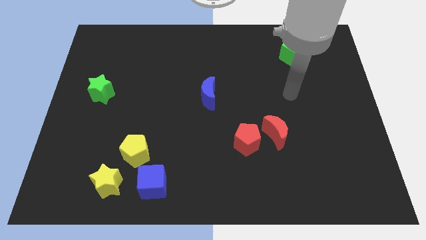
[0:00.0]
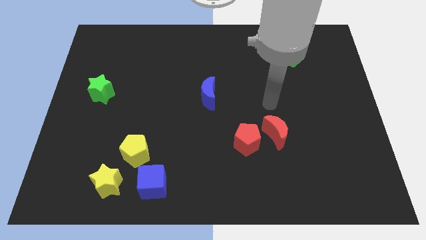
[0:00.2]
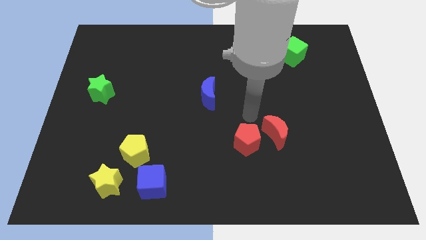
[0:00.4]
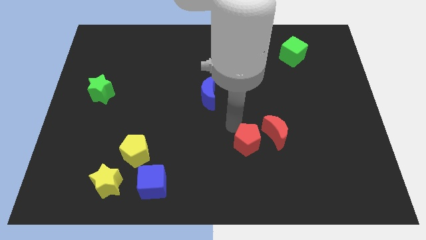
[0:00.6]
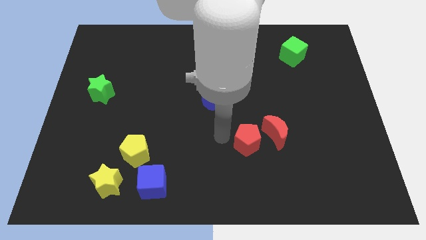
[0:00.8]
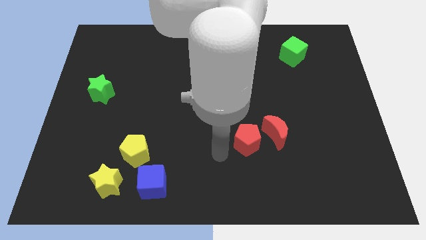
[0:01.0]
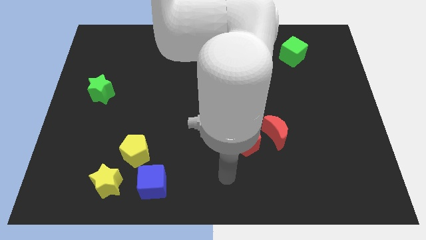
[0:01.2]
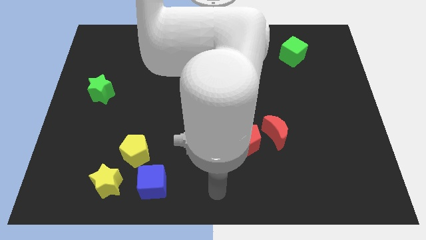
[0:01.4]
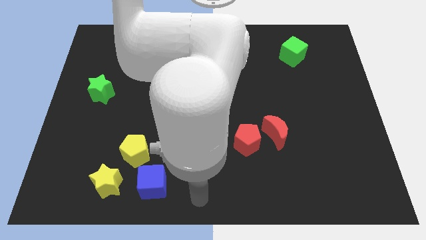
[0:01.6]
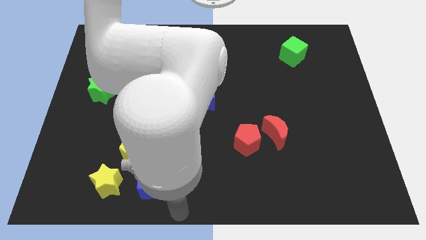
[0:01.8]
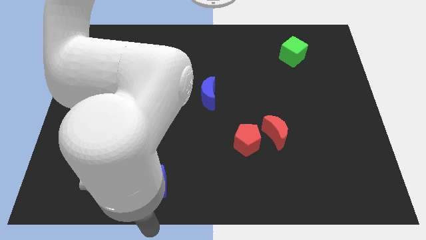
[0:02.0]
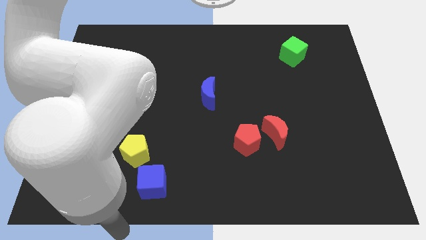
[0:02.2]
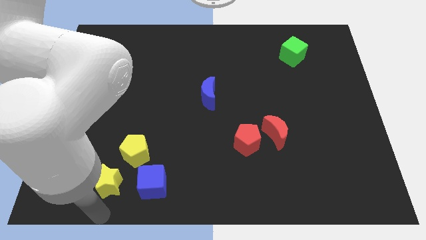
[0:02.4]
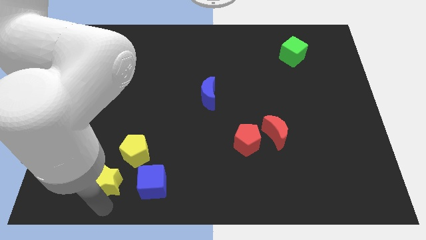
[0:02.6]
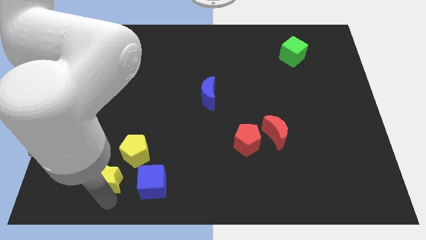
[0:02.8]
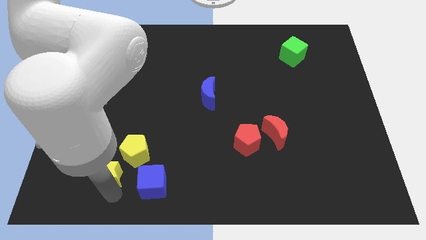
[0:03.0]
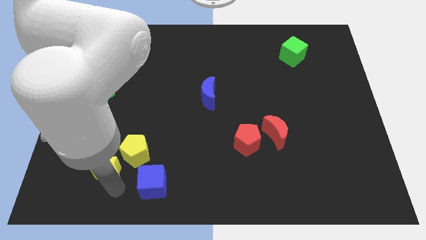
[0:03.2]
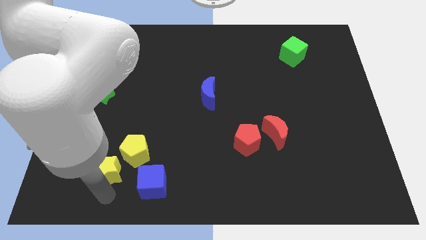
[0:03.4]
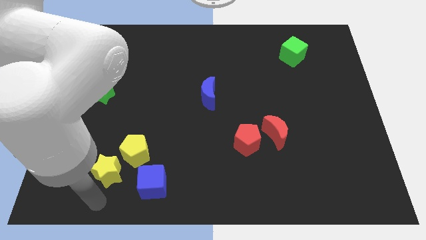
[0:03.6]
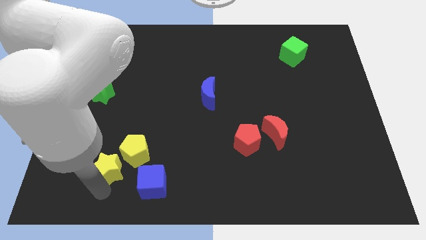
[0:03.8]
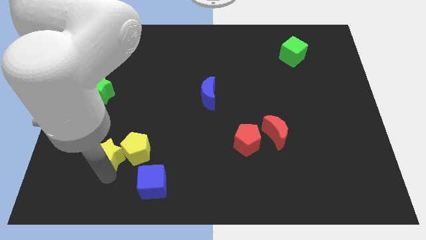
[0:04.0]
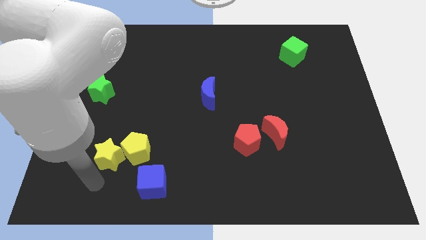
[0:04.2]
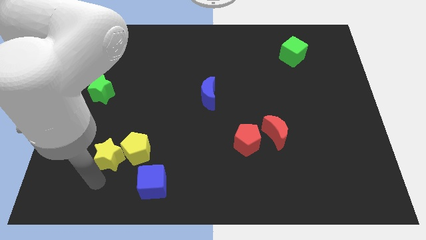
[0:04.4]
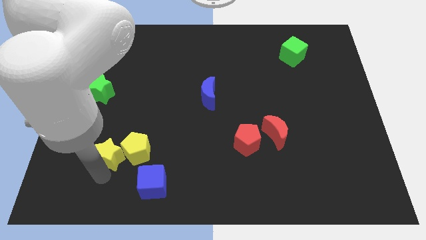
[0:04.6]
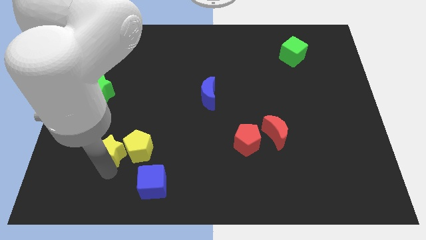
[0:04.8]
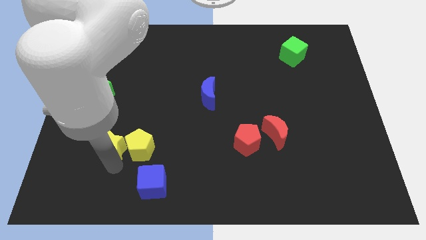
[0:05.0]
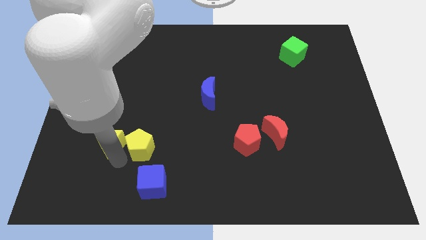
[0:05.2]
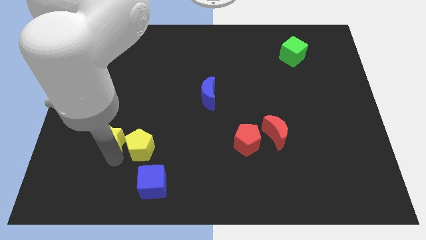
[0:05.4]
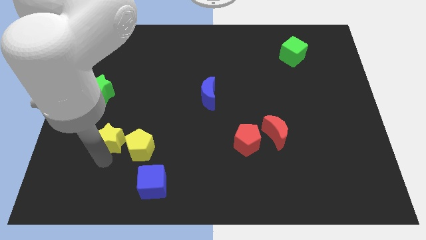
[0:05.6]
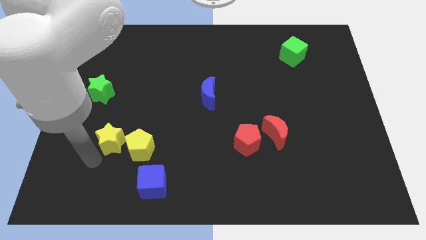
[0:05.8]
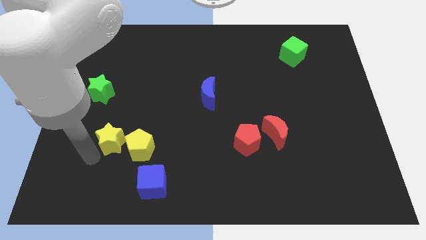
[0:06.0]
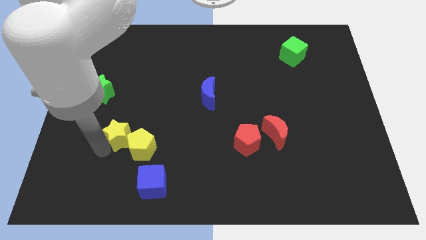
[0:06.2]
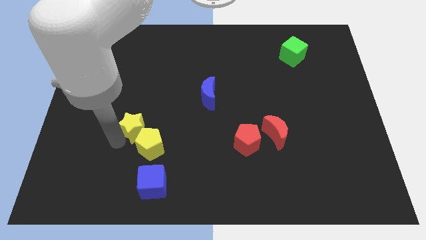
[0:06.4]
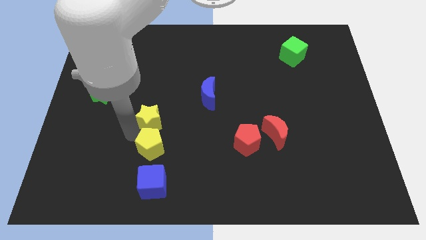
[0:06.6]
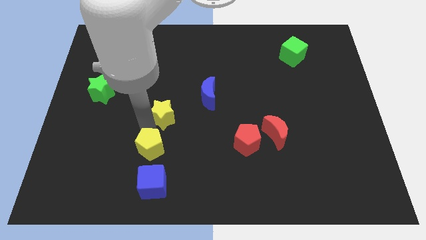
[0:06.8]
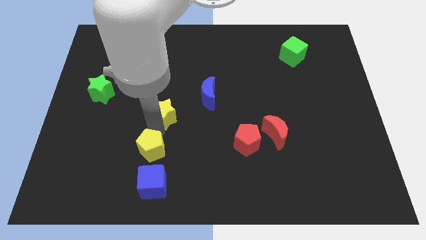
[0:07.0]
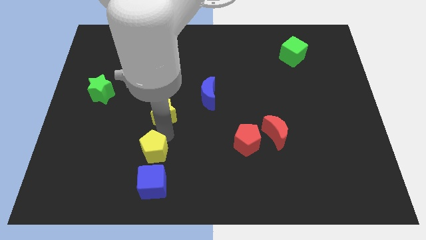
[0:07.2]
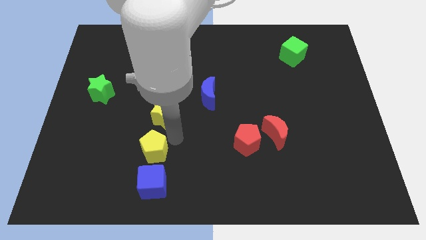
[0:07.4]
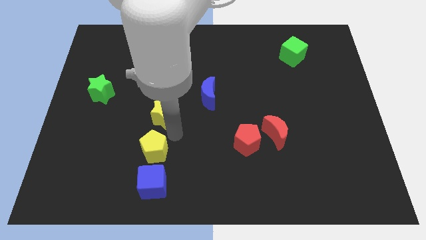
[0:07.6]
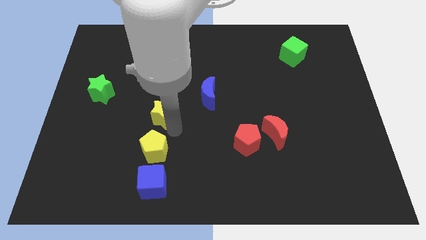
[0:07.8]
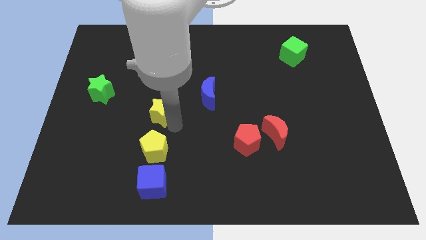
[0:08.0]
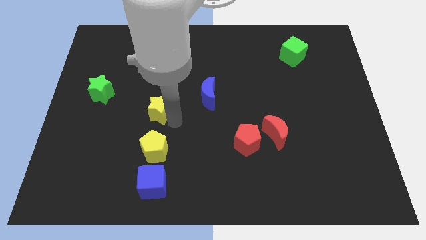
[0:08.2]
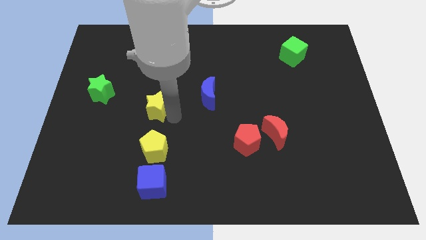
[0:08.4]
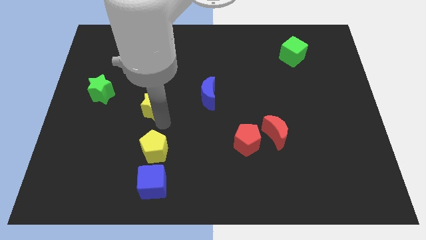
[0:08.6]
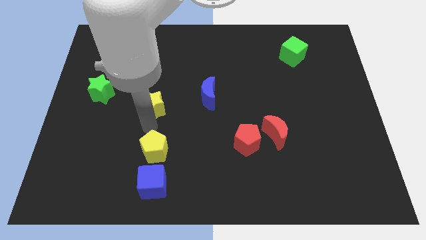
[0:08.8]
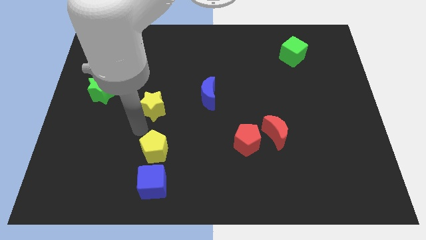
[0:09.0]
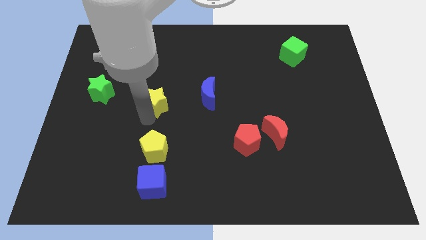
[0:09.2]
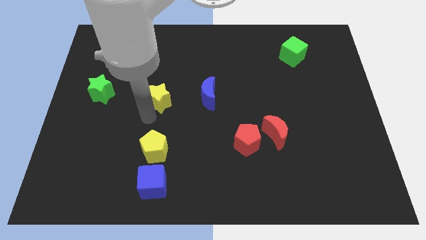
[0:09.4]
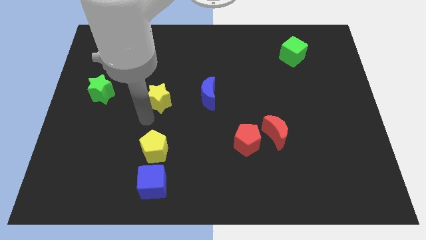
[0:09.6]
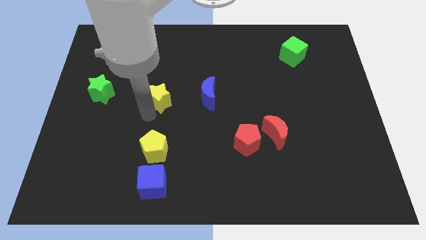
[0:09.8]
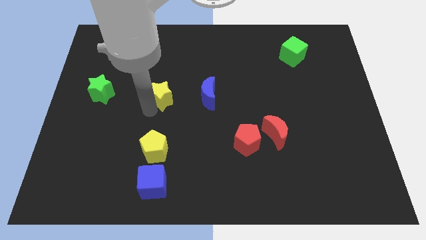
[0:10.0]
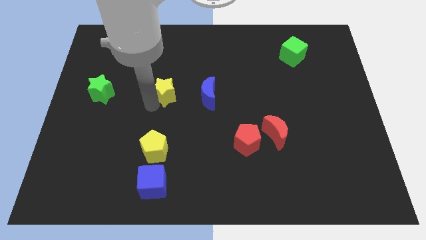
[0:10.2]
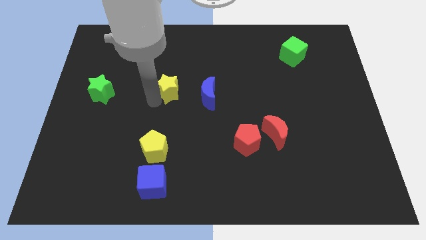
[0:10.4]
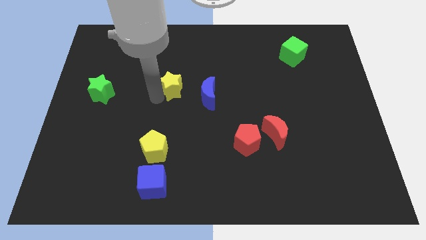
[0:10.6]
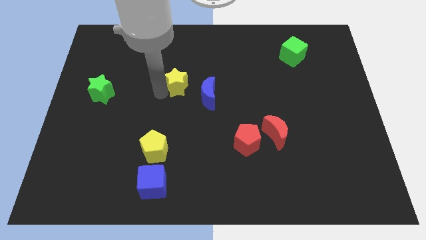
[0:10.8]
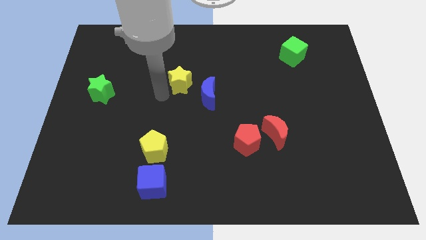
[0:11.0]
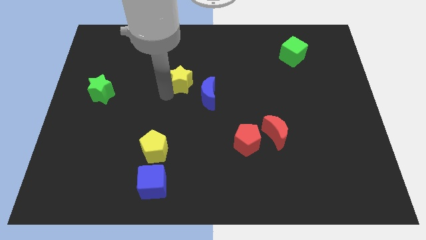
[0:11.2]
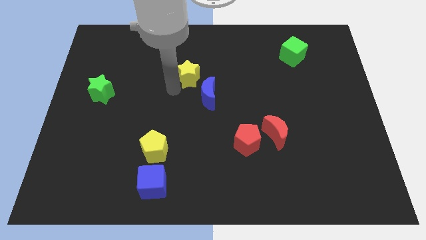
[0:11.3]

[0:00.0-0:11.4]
push the yellow star to the top of the blue moon

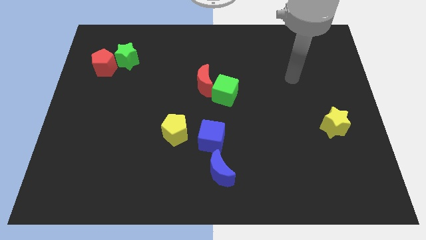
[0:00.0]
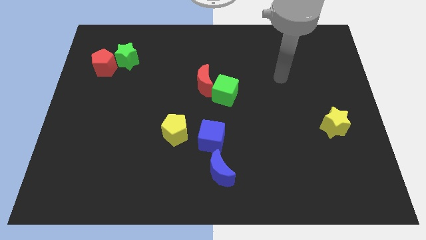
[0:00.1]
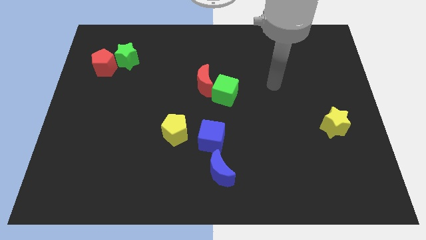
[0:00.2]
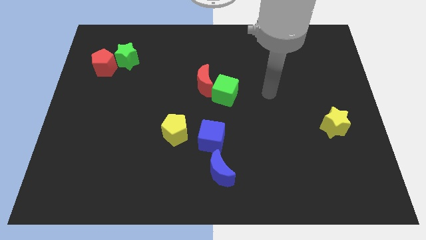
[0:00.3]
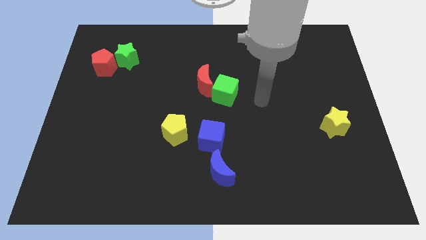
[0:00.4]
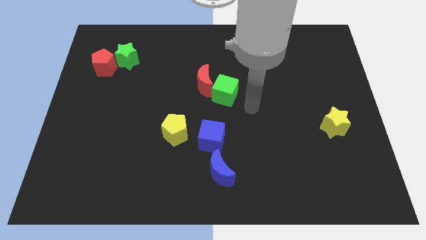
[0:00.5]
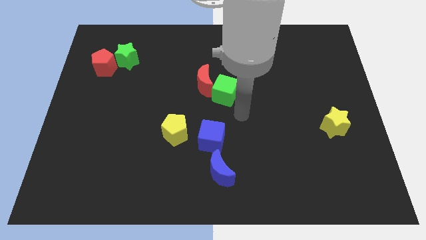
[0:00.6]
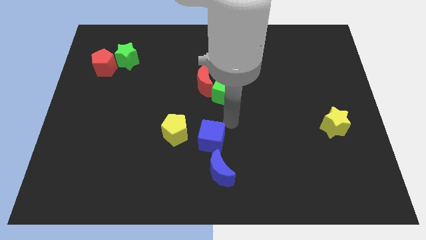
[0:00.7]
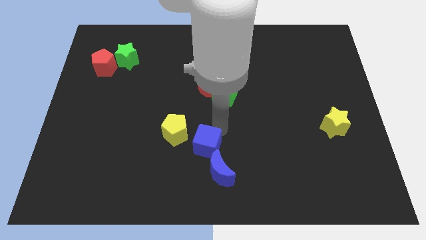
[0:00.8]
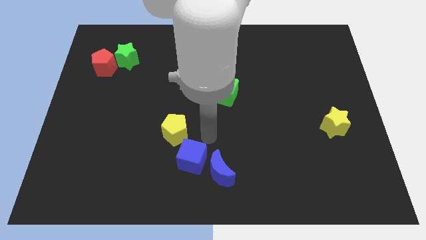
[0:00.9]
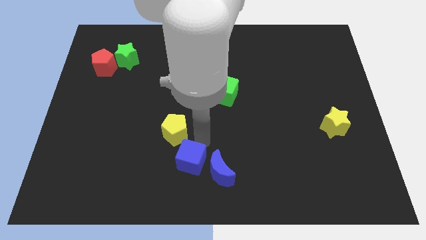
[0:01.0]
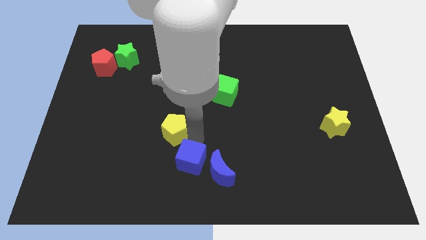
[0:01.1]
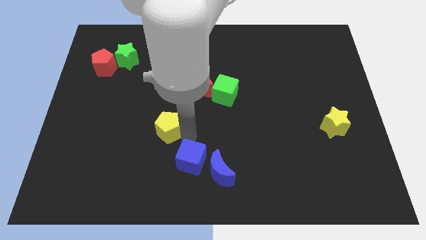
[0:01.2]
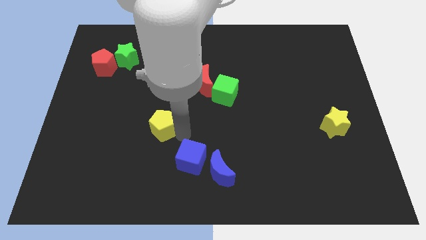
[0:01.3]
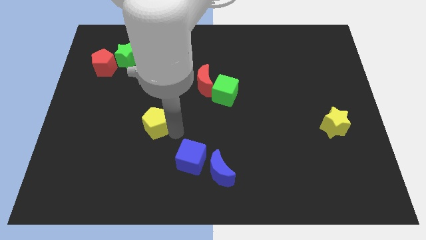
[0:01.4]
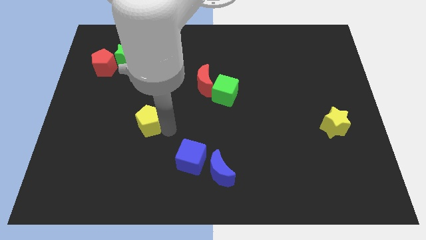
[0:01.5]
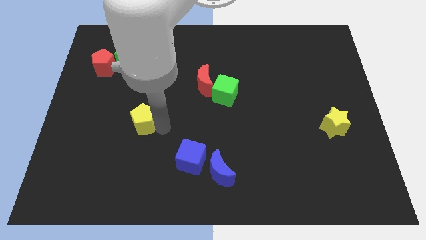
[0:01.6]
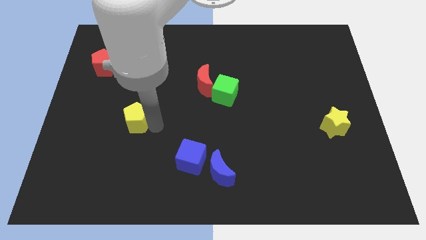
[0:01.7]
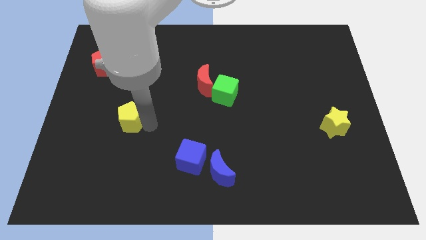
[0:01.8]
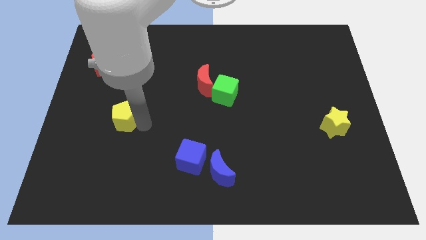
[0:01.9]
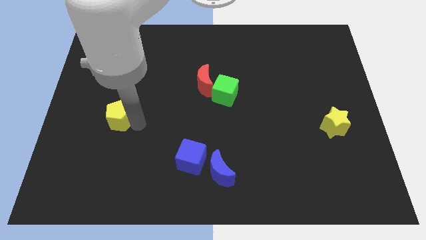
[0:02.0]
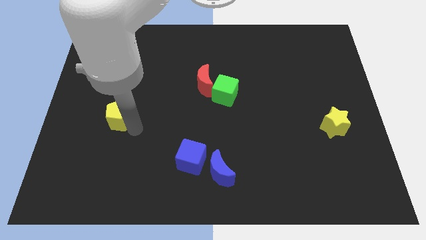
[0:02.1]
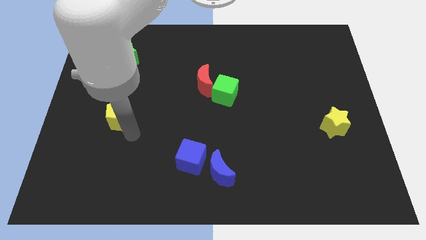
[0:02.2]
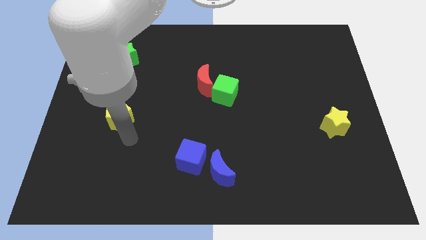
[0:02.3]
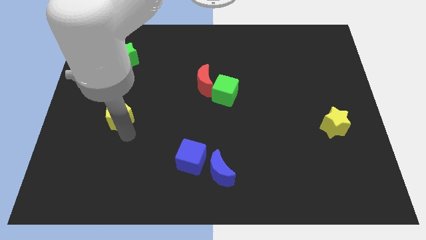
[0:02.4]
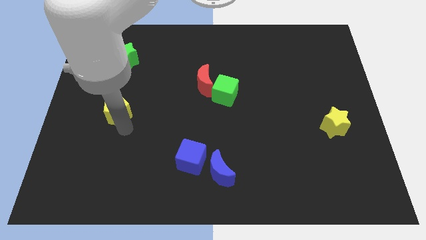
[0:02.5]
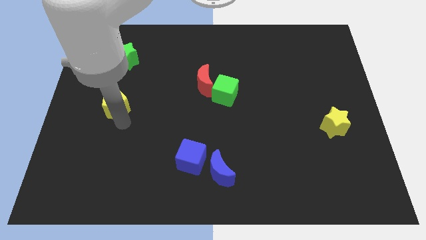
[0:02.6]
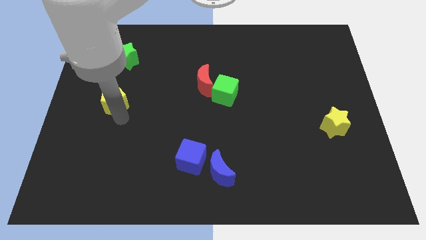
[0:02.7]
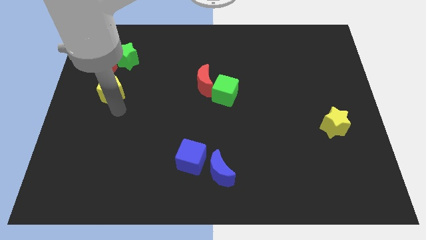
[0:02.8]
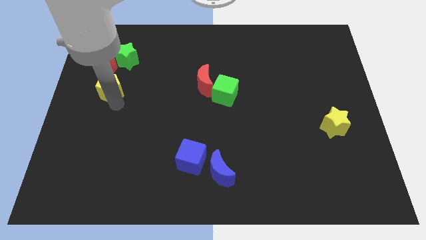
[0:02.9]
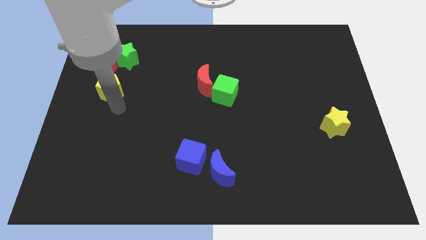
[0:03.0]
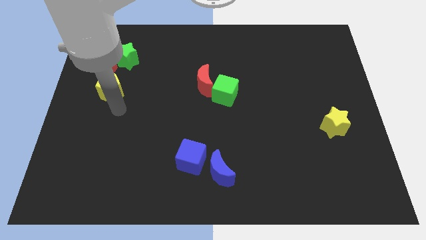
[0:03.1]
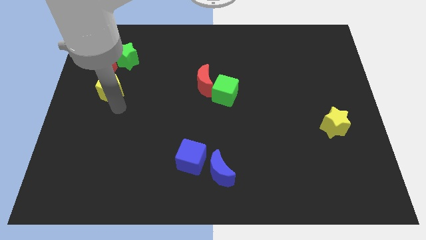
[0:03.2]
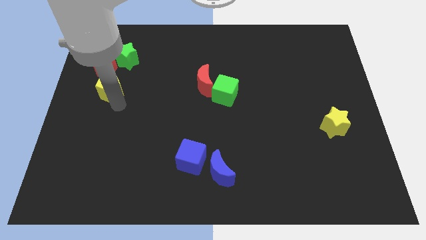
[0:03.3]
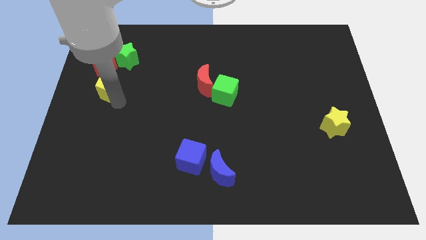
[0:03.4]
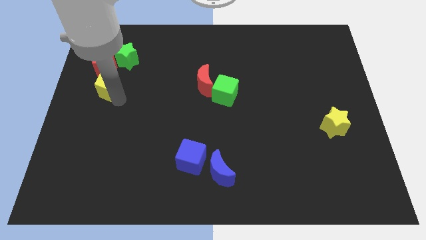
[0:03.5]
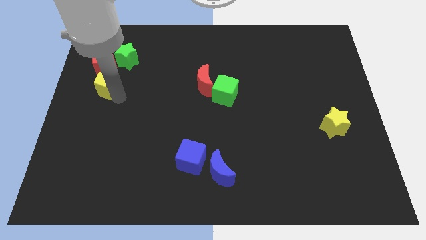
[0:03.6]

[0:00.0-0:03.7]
push the yellow pentagon to the bottom left of the green star
